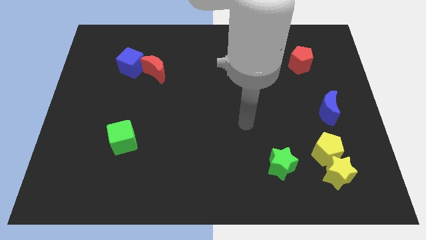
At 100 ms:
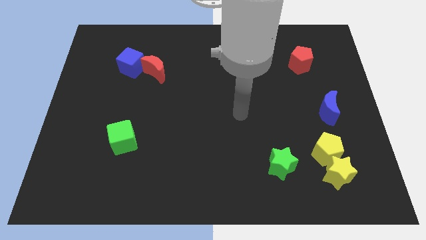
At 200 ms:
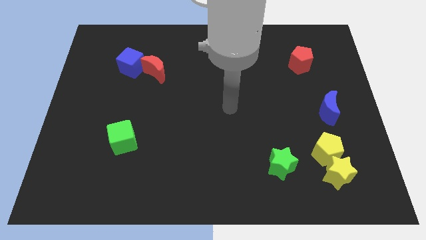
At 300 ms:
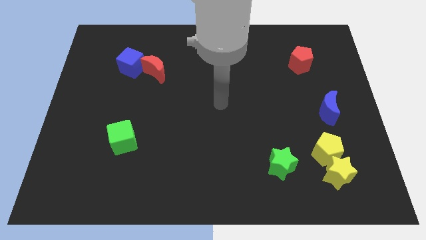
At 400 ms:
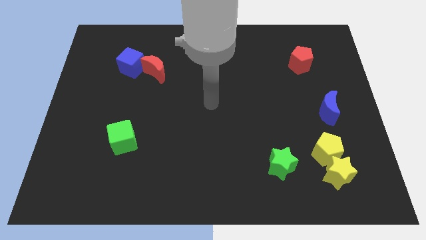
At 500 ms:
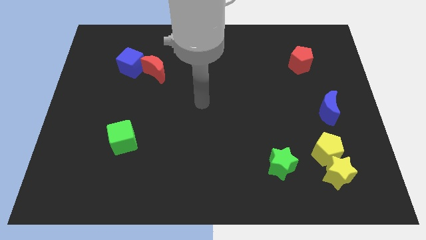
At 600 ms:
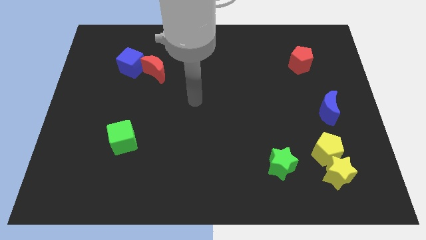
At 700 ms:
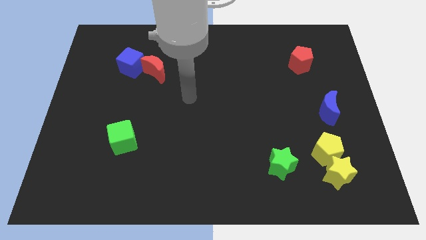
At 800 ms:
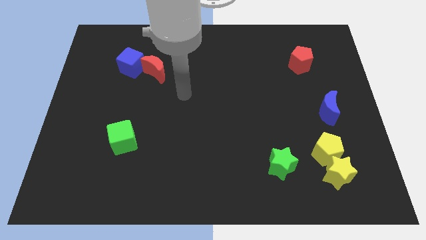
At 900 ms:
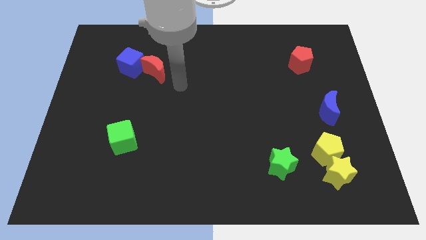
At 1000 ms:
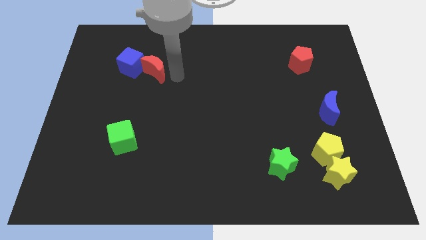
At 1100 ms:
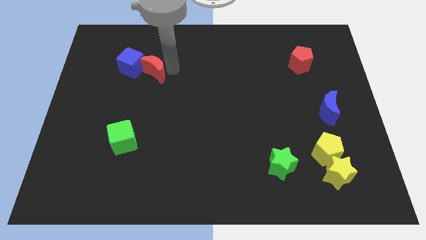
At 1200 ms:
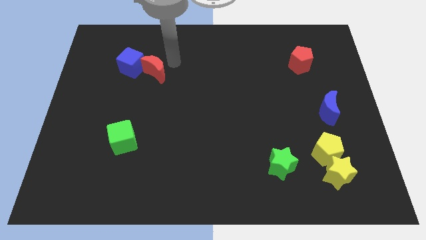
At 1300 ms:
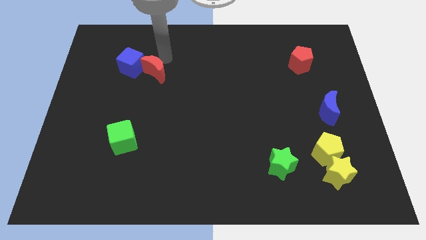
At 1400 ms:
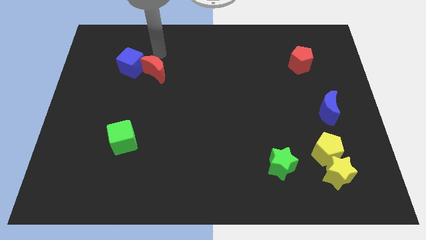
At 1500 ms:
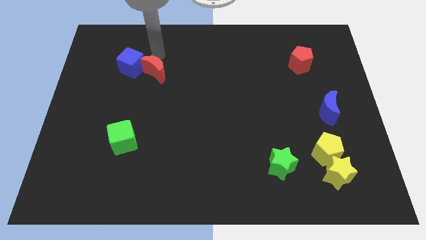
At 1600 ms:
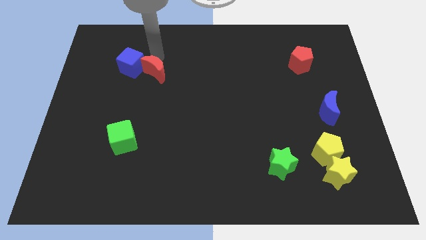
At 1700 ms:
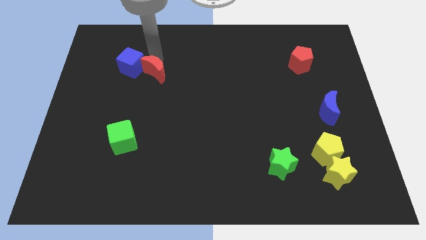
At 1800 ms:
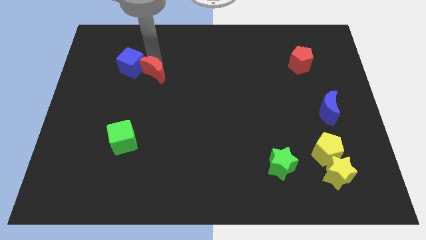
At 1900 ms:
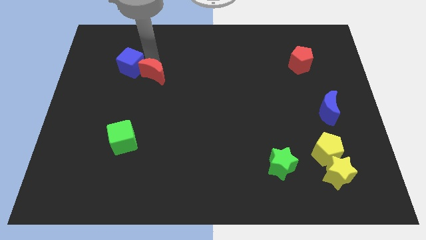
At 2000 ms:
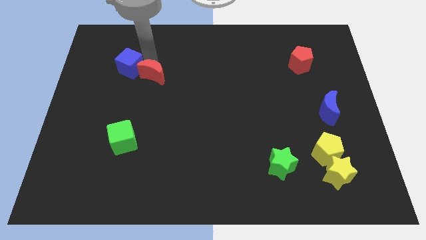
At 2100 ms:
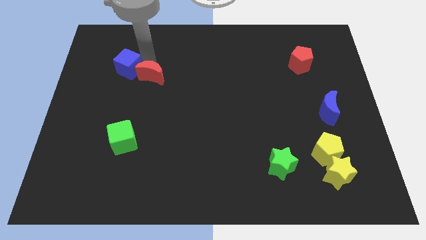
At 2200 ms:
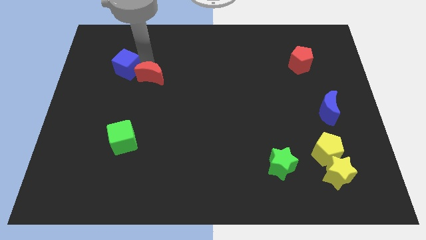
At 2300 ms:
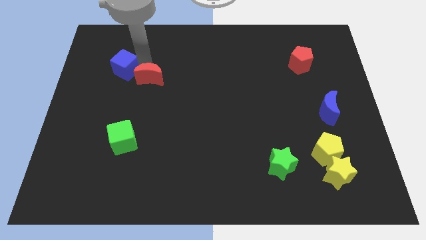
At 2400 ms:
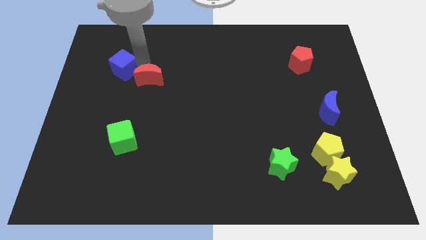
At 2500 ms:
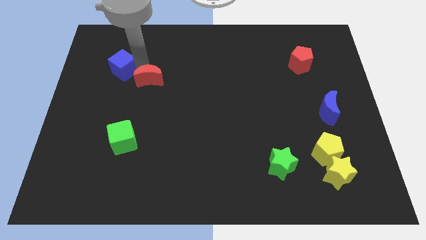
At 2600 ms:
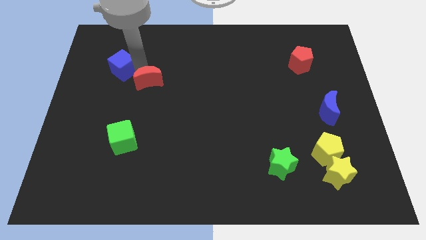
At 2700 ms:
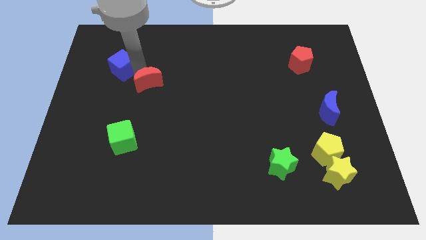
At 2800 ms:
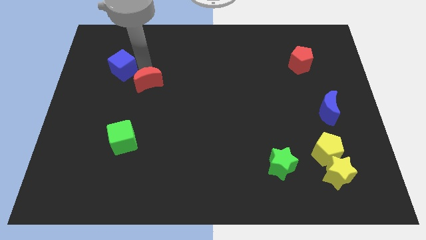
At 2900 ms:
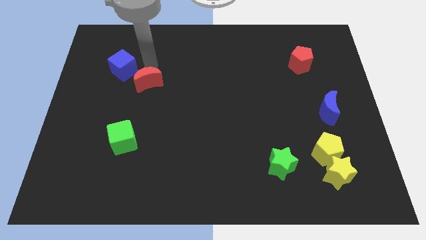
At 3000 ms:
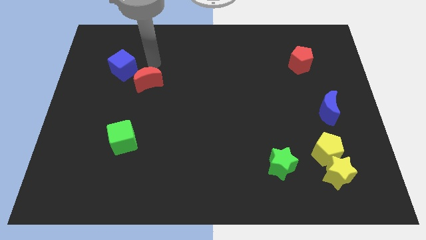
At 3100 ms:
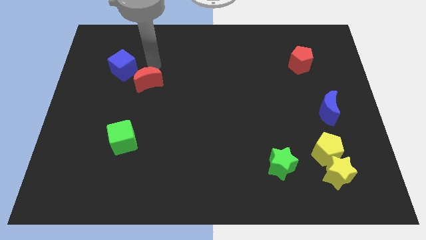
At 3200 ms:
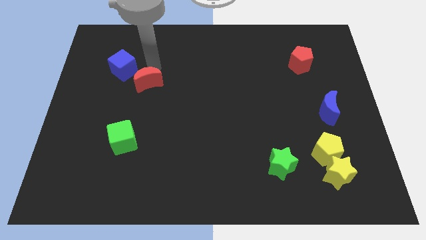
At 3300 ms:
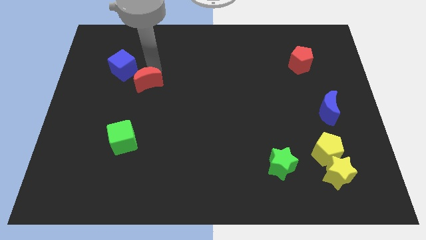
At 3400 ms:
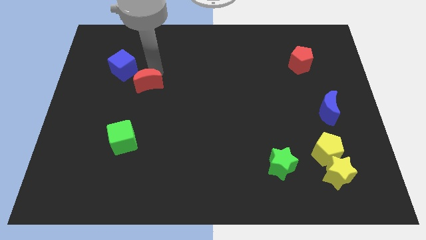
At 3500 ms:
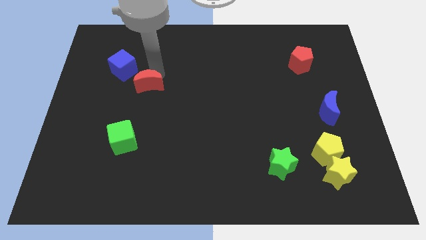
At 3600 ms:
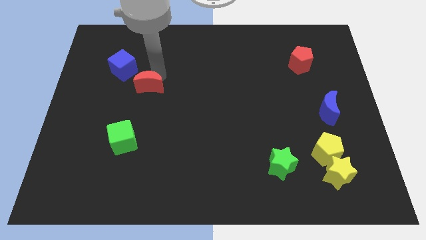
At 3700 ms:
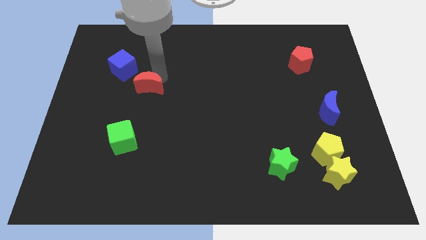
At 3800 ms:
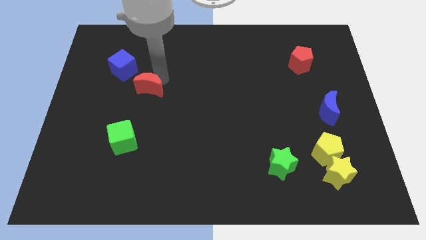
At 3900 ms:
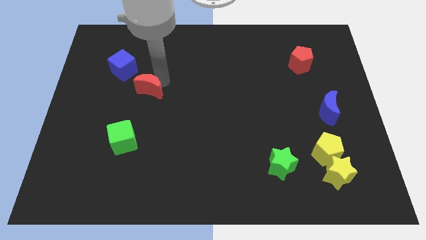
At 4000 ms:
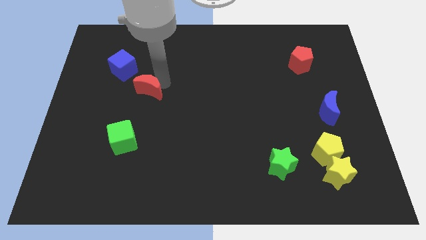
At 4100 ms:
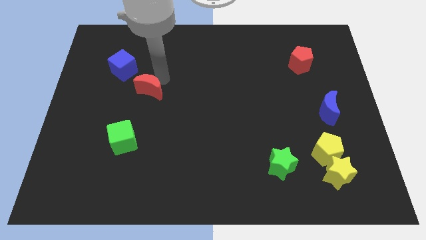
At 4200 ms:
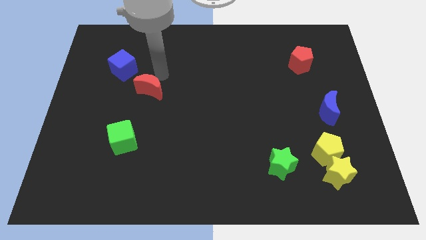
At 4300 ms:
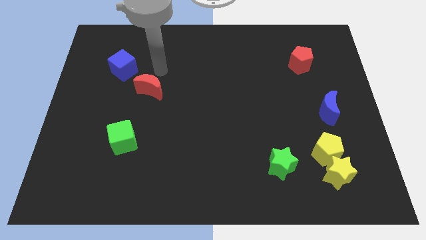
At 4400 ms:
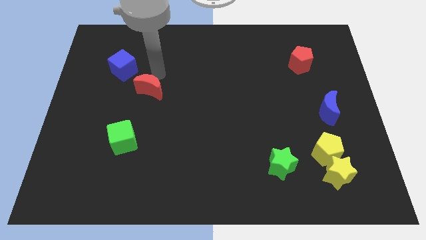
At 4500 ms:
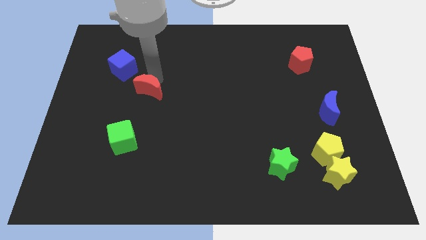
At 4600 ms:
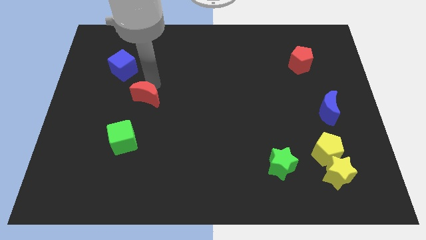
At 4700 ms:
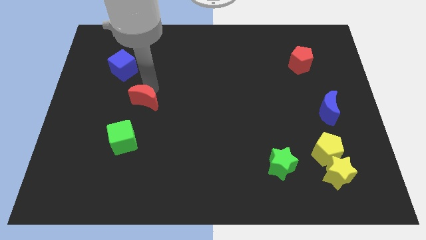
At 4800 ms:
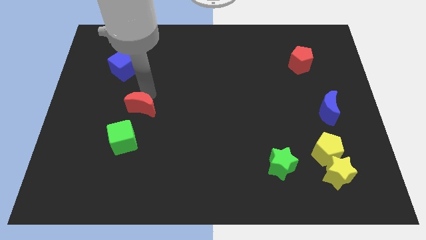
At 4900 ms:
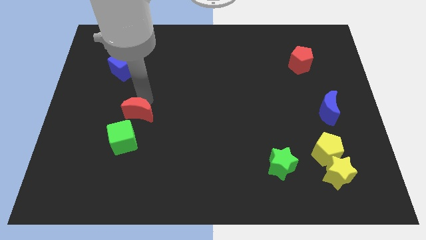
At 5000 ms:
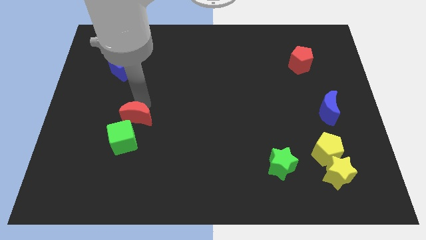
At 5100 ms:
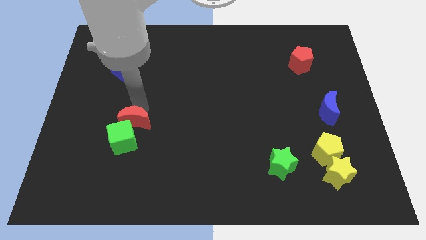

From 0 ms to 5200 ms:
push the red moon next to the green cube

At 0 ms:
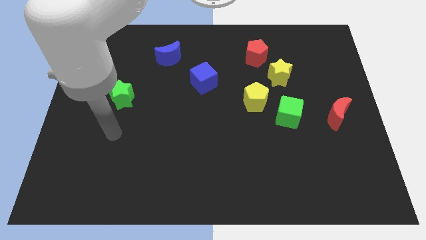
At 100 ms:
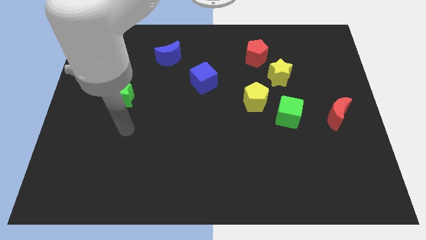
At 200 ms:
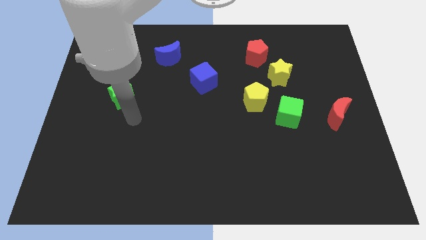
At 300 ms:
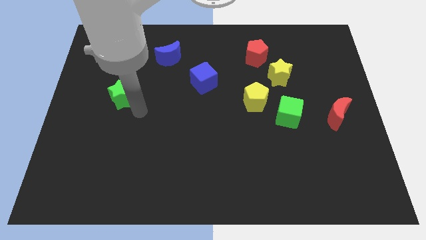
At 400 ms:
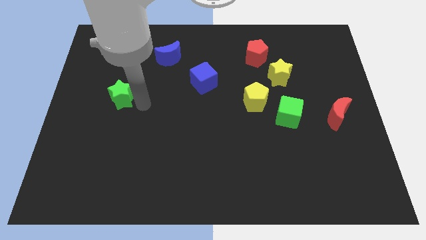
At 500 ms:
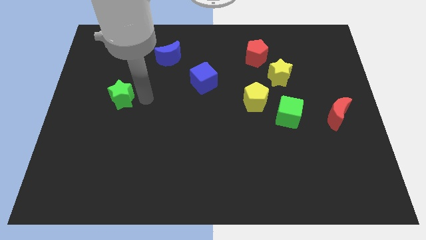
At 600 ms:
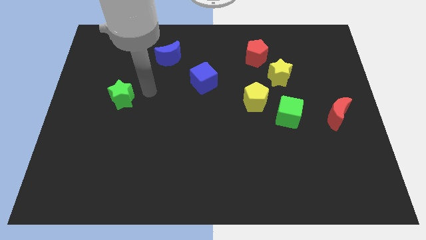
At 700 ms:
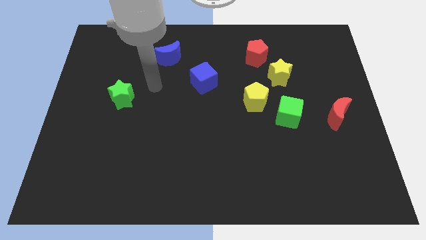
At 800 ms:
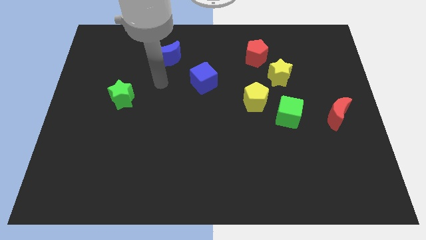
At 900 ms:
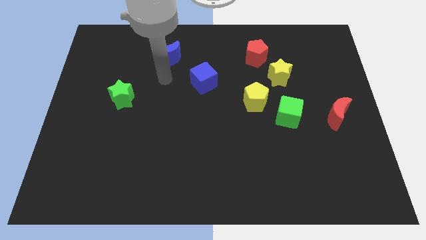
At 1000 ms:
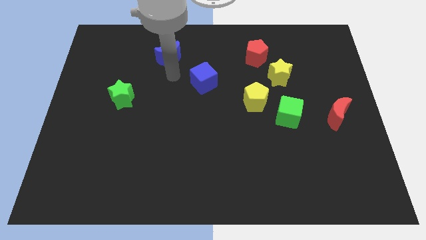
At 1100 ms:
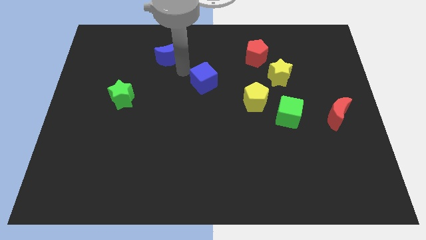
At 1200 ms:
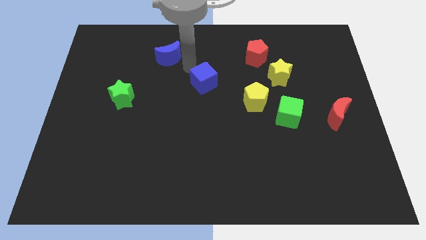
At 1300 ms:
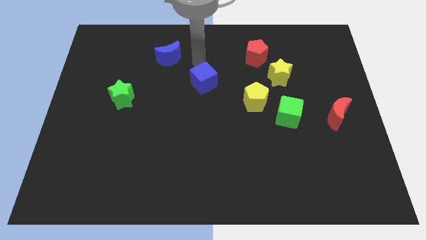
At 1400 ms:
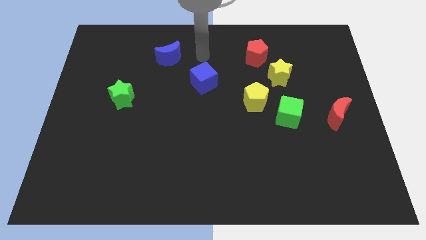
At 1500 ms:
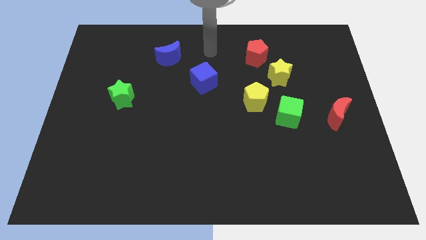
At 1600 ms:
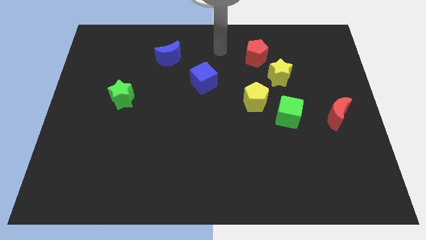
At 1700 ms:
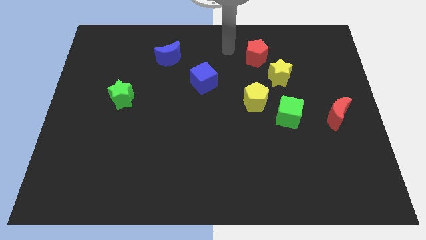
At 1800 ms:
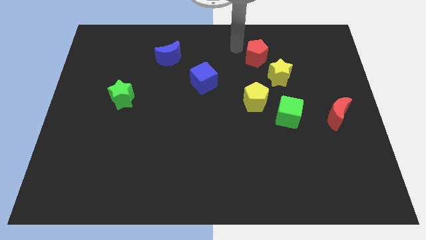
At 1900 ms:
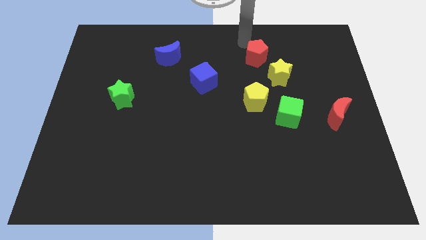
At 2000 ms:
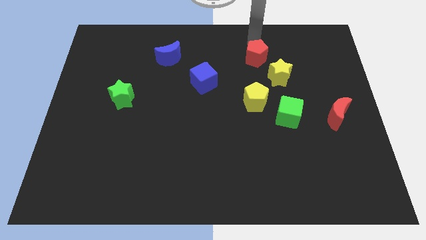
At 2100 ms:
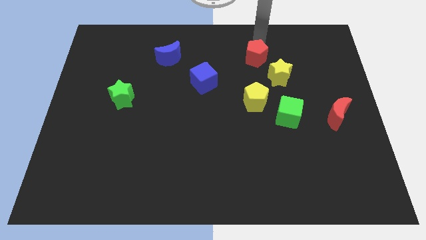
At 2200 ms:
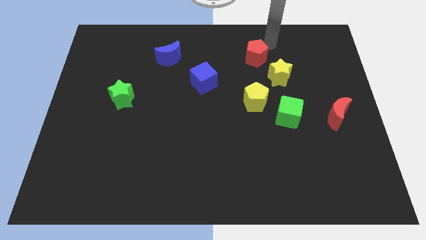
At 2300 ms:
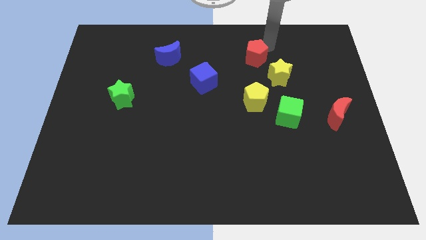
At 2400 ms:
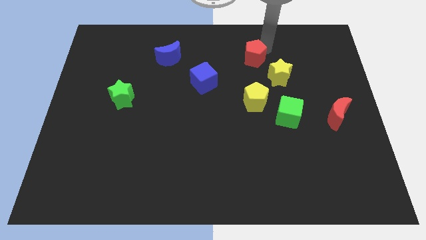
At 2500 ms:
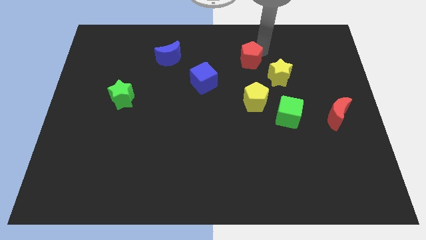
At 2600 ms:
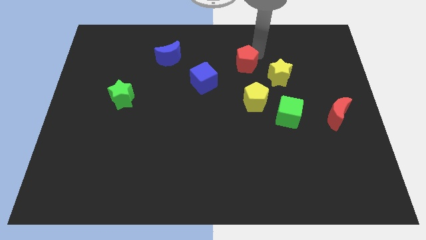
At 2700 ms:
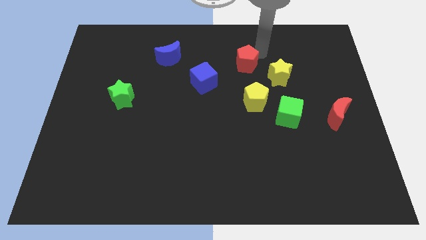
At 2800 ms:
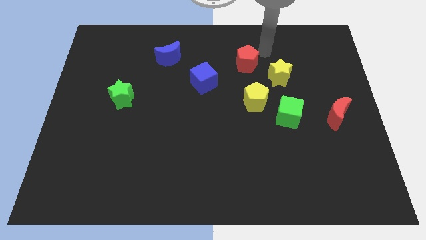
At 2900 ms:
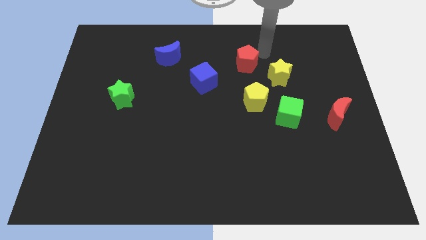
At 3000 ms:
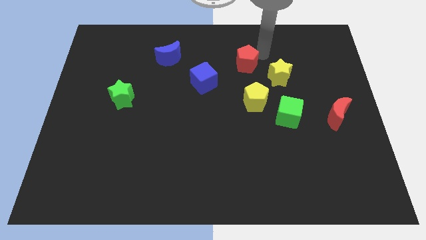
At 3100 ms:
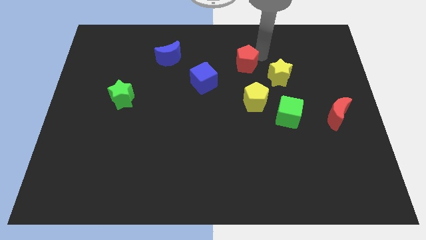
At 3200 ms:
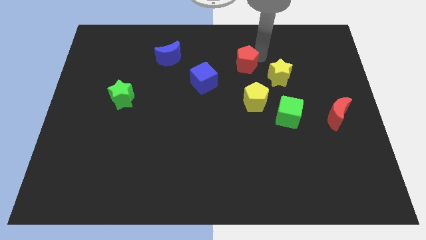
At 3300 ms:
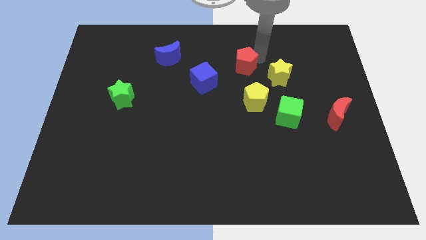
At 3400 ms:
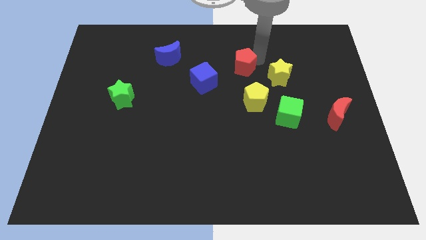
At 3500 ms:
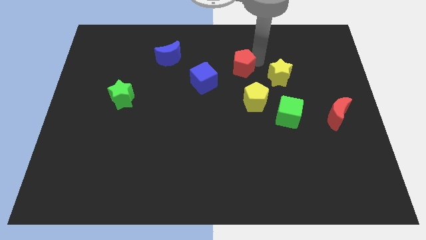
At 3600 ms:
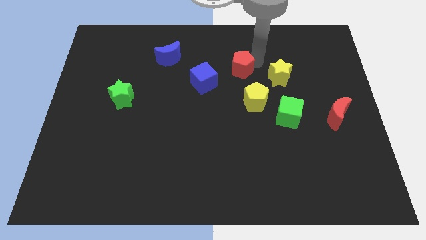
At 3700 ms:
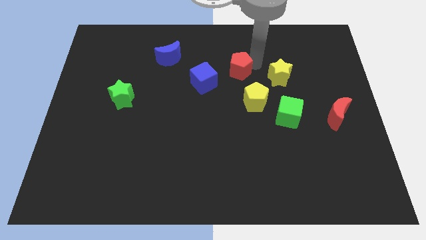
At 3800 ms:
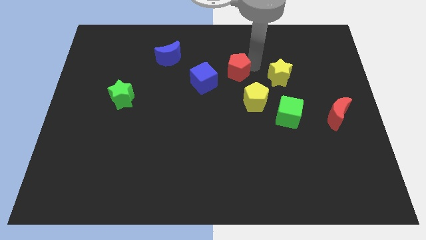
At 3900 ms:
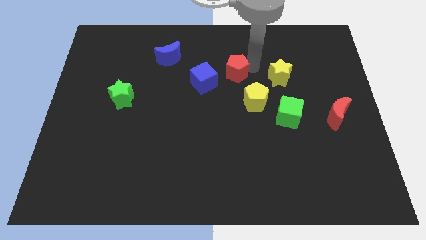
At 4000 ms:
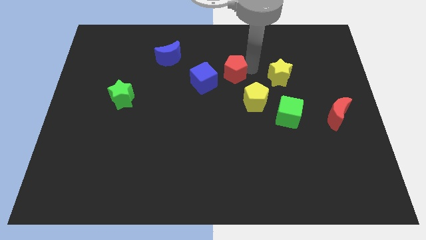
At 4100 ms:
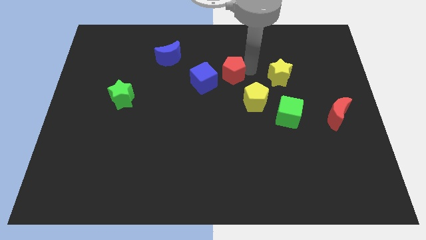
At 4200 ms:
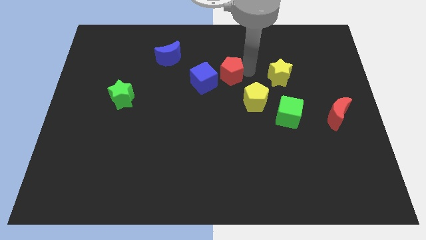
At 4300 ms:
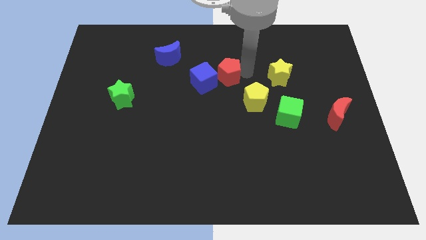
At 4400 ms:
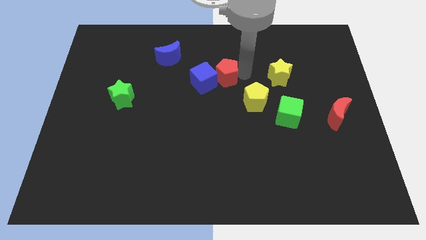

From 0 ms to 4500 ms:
slide the red pentagon to the blue cube
